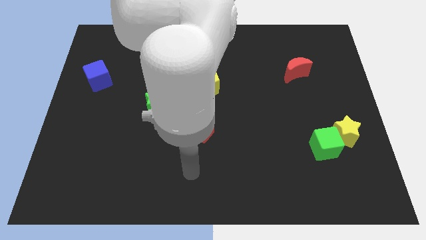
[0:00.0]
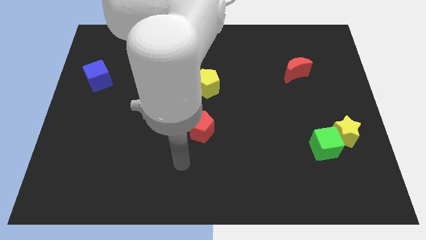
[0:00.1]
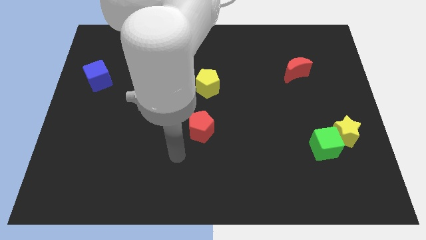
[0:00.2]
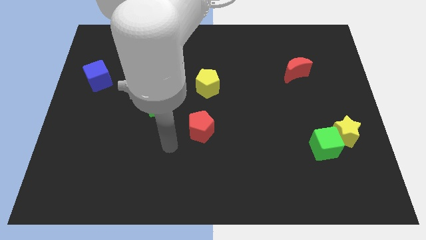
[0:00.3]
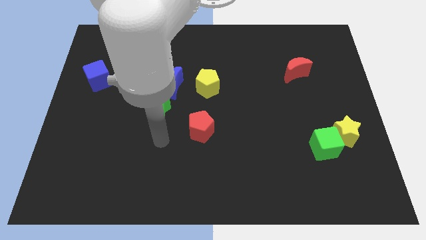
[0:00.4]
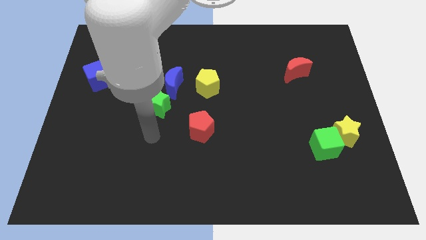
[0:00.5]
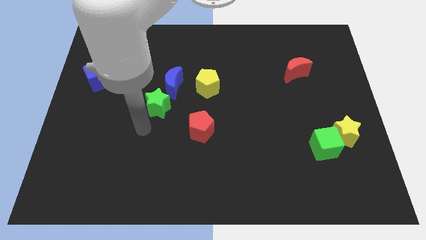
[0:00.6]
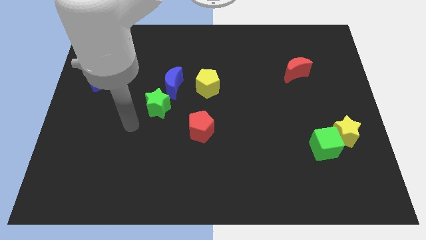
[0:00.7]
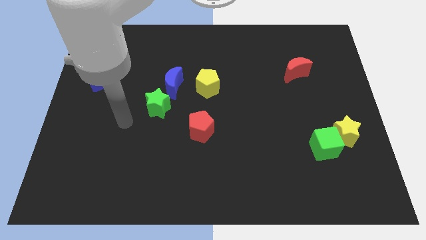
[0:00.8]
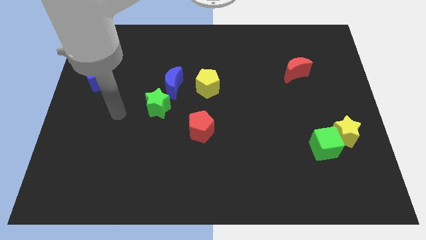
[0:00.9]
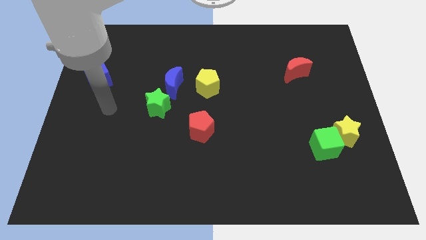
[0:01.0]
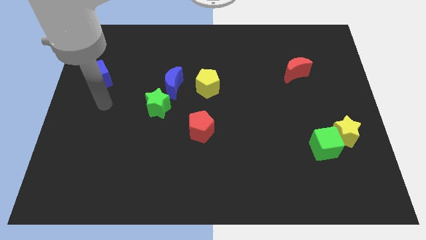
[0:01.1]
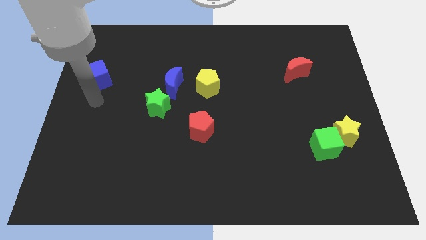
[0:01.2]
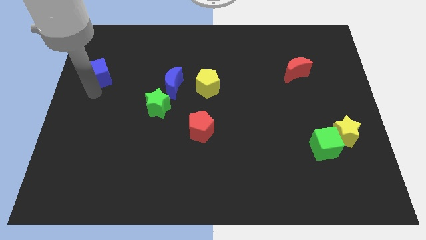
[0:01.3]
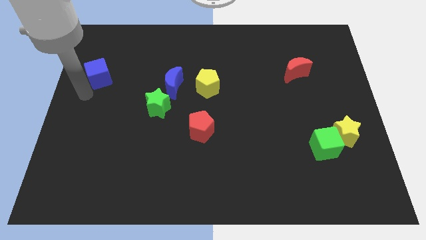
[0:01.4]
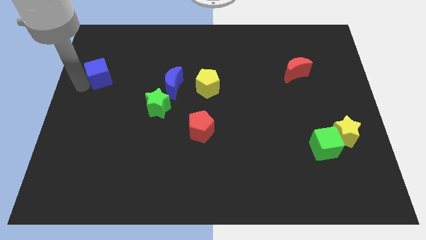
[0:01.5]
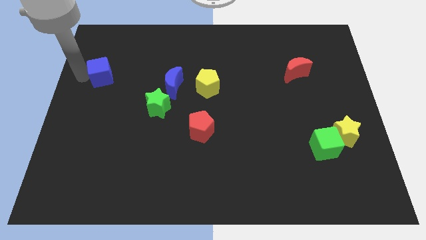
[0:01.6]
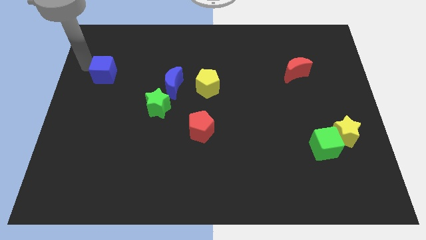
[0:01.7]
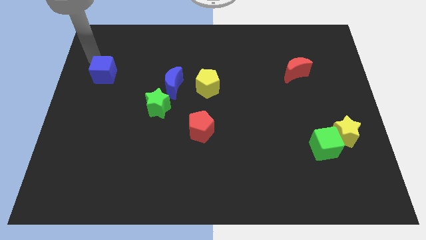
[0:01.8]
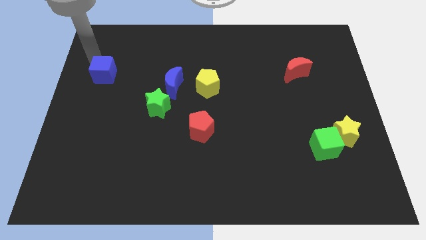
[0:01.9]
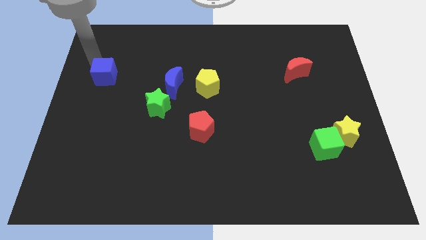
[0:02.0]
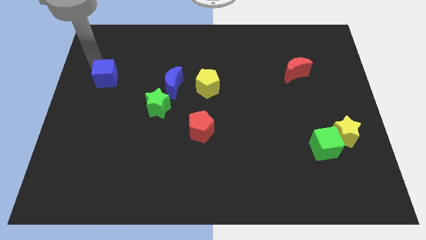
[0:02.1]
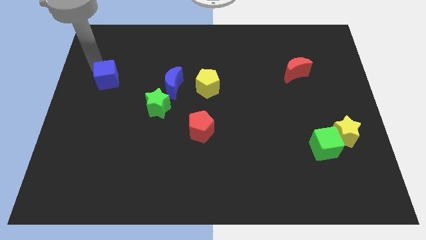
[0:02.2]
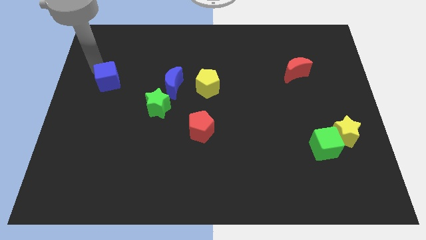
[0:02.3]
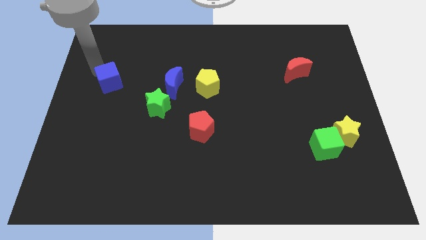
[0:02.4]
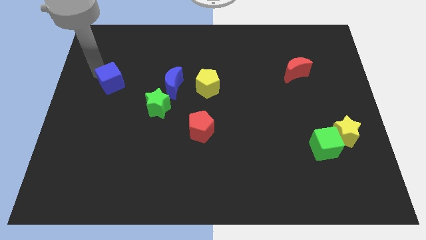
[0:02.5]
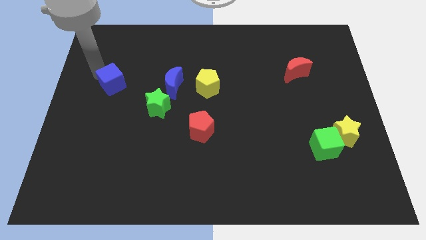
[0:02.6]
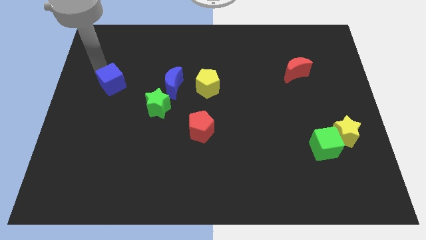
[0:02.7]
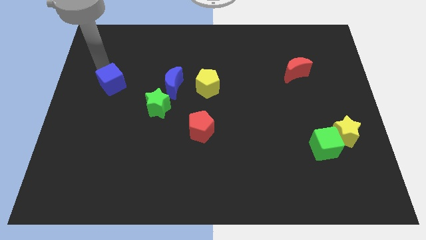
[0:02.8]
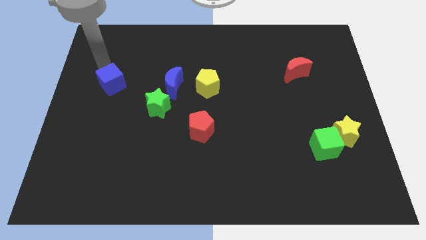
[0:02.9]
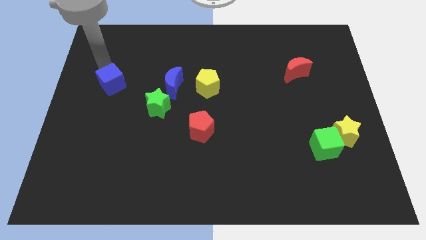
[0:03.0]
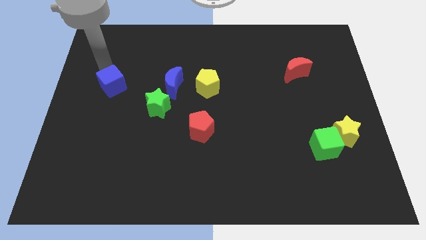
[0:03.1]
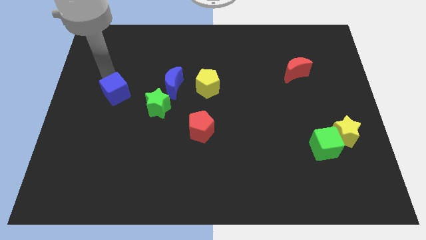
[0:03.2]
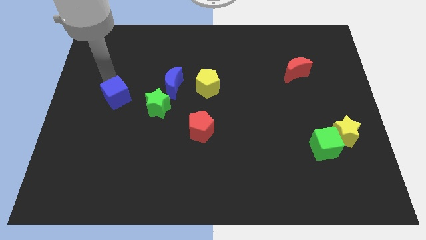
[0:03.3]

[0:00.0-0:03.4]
slide the blue cube somewhat down and to the right

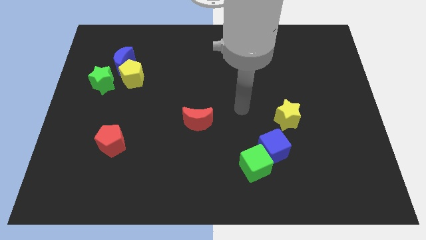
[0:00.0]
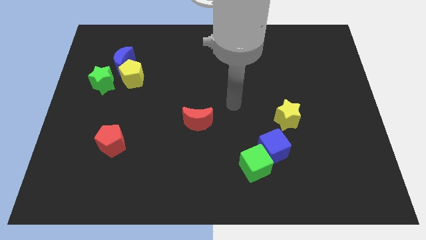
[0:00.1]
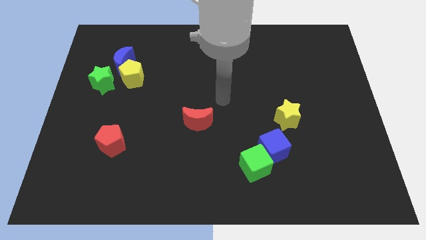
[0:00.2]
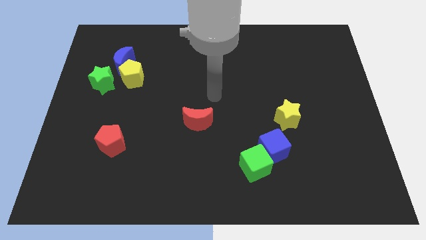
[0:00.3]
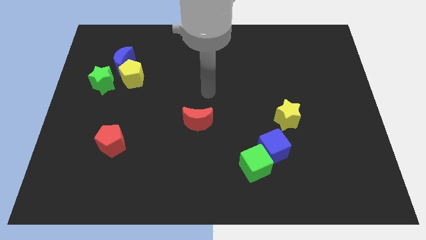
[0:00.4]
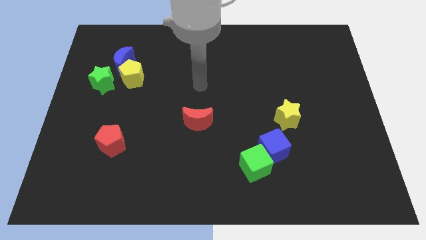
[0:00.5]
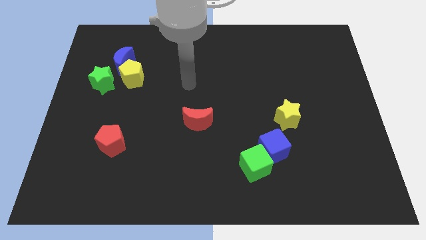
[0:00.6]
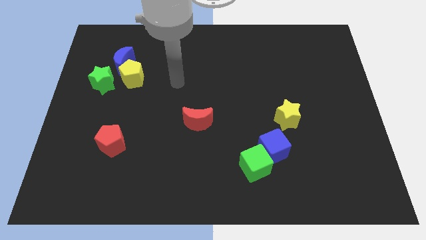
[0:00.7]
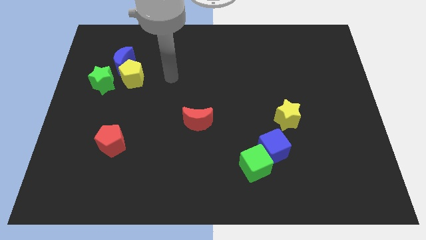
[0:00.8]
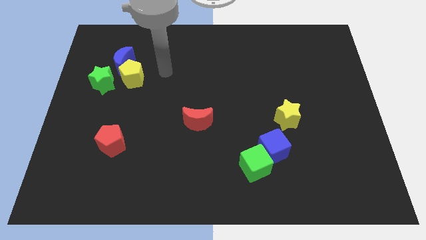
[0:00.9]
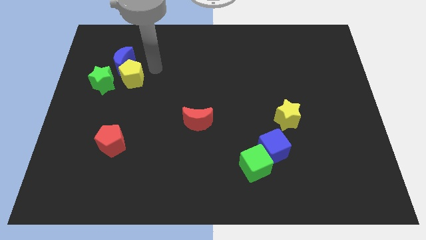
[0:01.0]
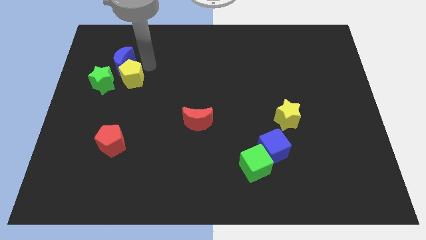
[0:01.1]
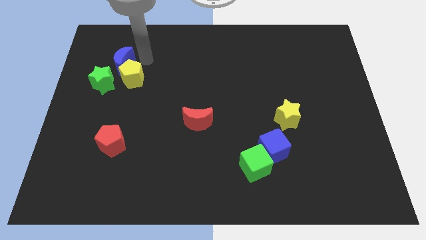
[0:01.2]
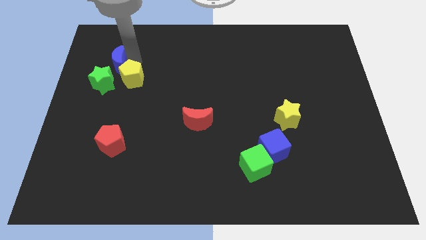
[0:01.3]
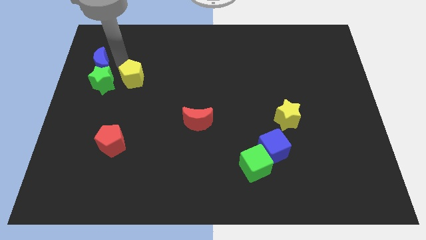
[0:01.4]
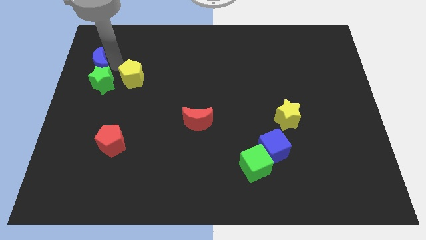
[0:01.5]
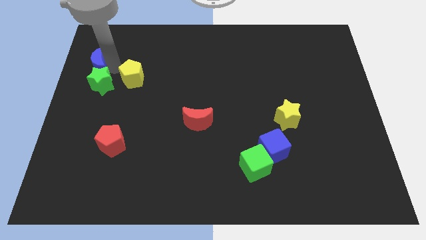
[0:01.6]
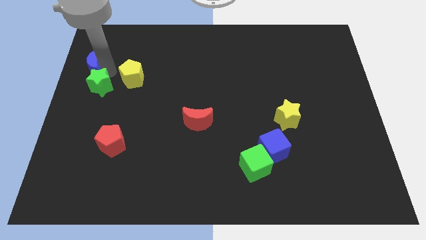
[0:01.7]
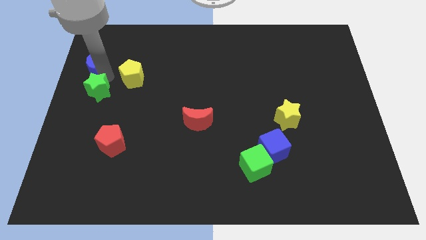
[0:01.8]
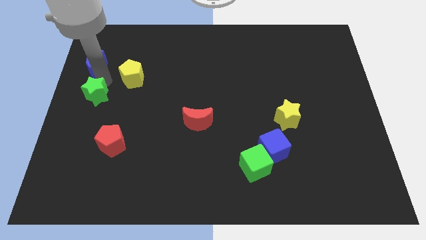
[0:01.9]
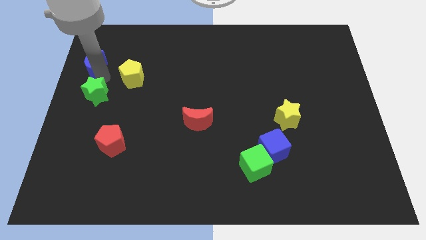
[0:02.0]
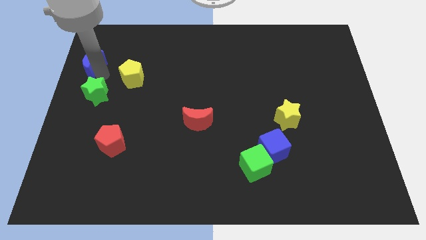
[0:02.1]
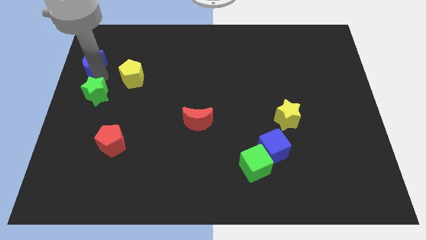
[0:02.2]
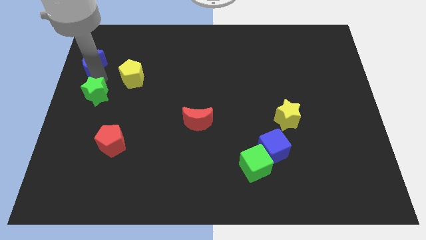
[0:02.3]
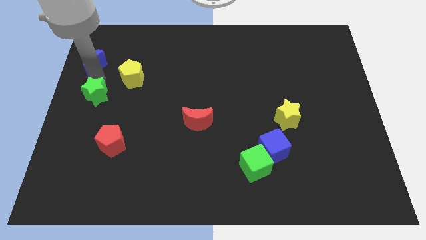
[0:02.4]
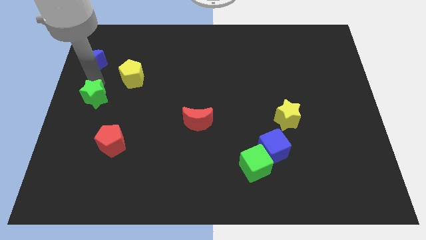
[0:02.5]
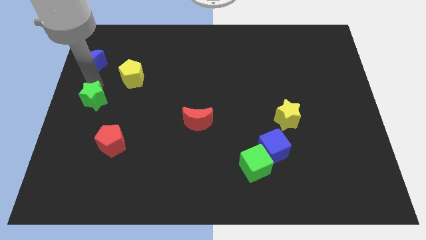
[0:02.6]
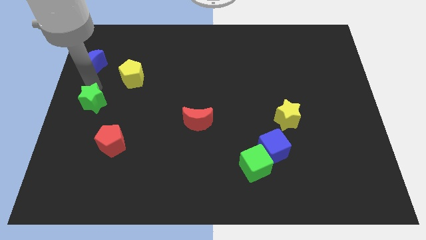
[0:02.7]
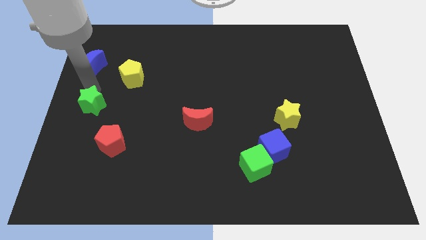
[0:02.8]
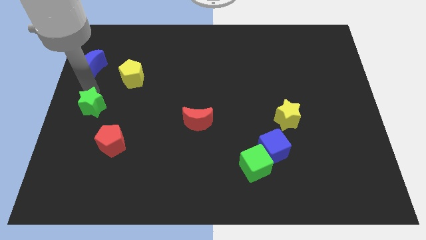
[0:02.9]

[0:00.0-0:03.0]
slightly slide the green star down

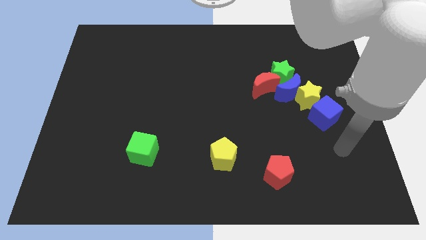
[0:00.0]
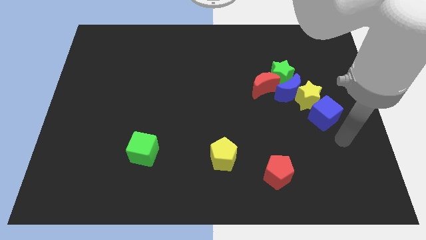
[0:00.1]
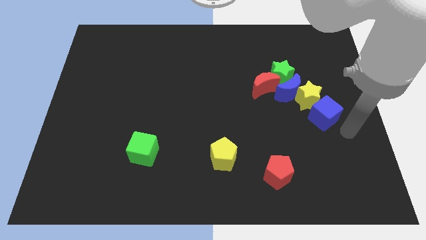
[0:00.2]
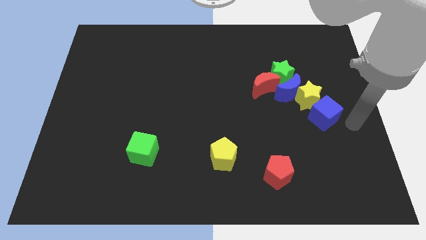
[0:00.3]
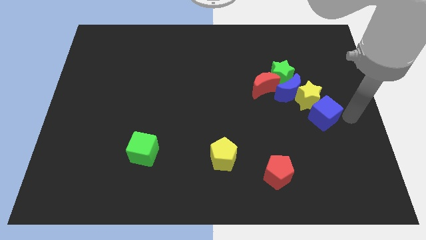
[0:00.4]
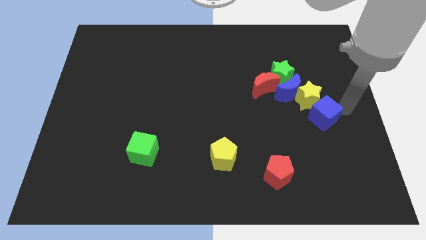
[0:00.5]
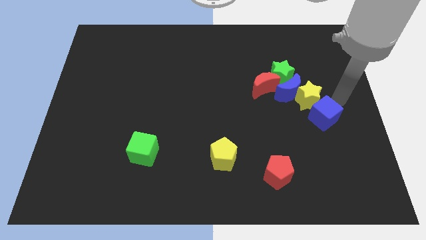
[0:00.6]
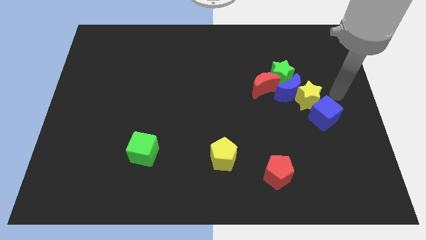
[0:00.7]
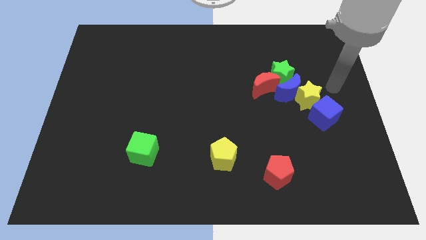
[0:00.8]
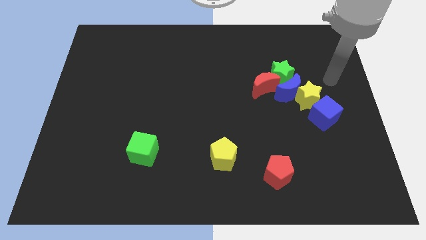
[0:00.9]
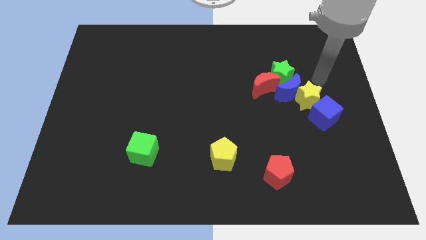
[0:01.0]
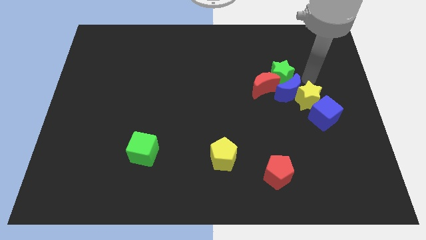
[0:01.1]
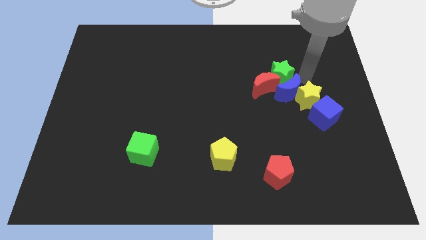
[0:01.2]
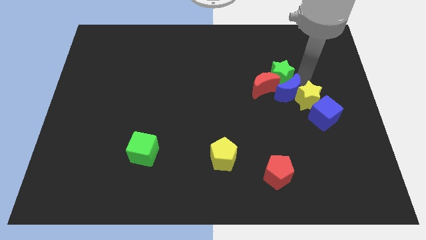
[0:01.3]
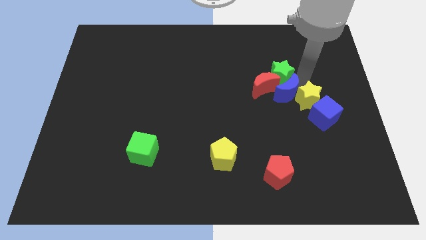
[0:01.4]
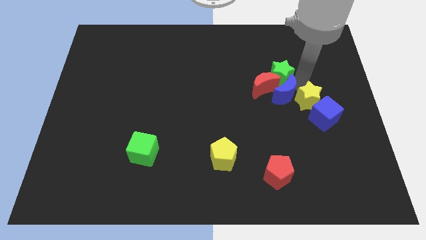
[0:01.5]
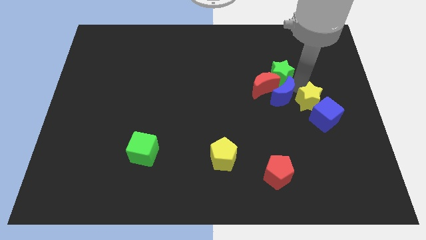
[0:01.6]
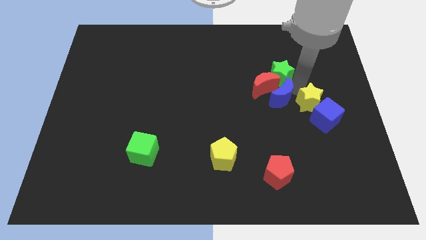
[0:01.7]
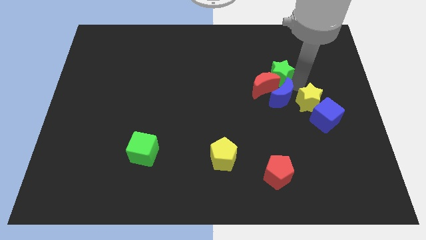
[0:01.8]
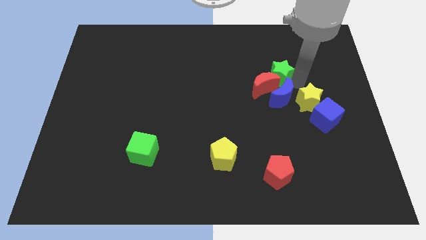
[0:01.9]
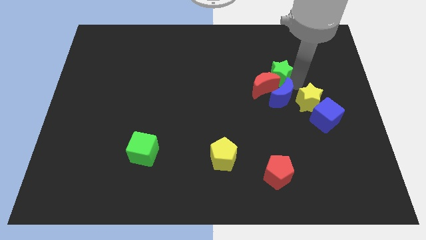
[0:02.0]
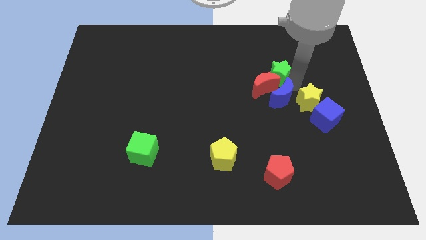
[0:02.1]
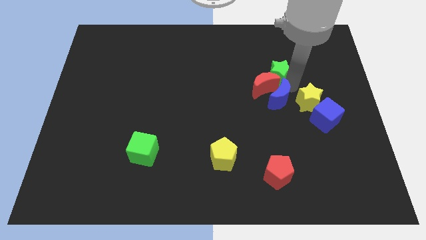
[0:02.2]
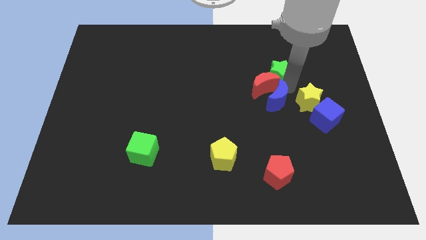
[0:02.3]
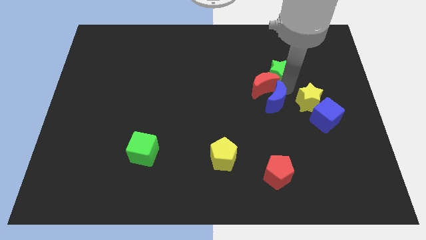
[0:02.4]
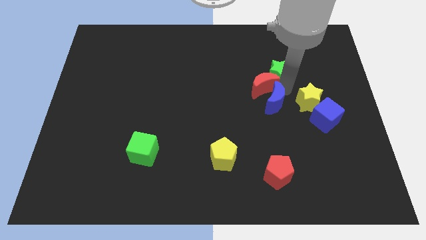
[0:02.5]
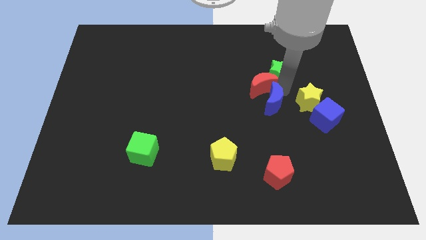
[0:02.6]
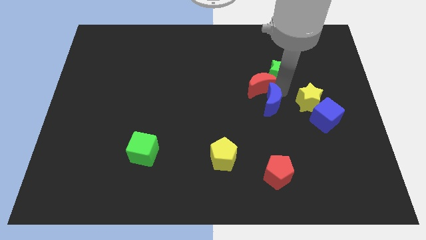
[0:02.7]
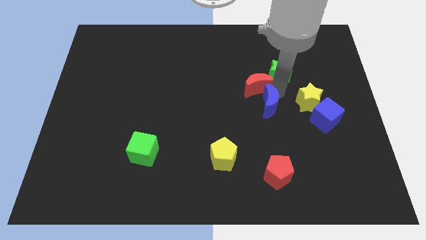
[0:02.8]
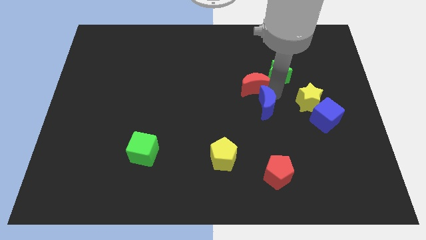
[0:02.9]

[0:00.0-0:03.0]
push the blue moon downwards and left somewhat
